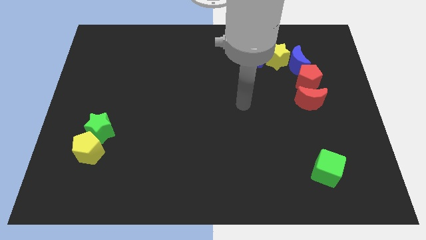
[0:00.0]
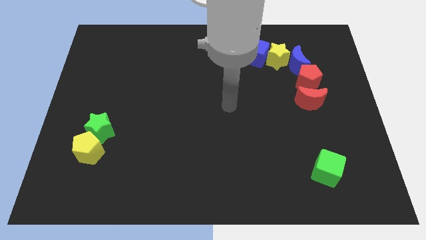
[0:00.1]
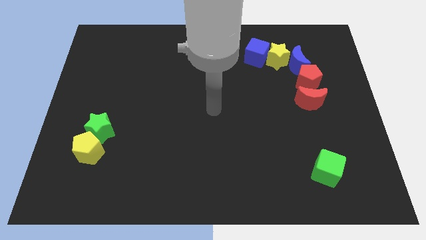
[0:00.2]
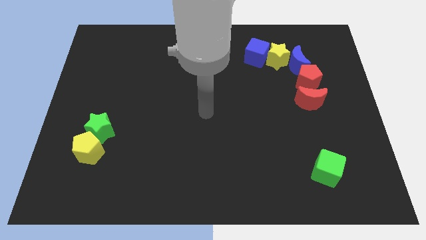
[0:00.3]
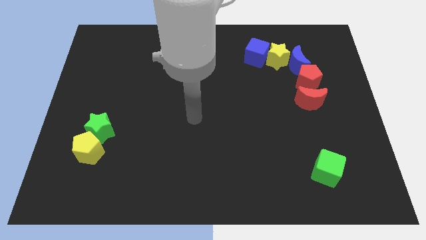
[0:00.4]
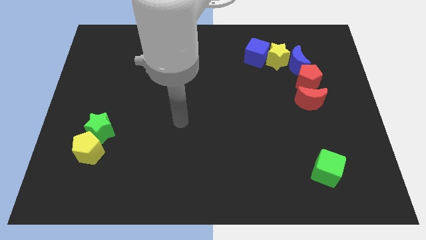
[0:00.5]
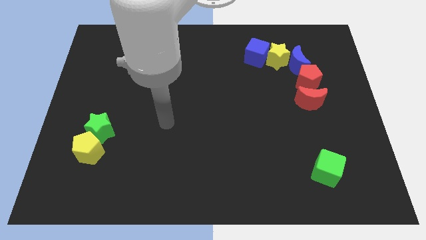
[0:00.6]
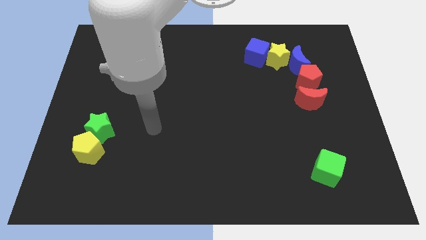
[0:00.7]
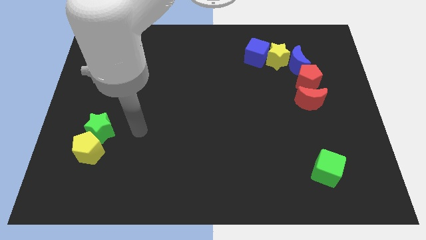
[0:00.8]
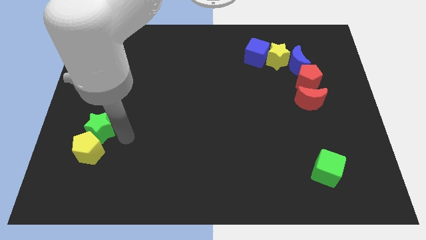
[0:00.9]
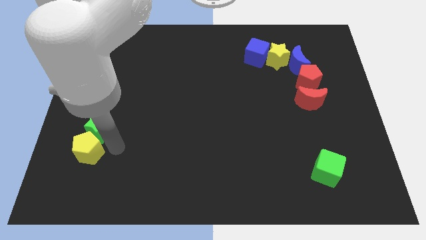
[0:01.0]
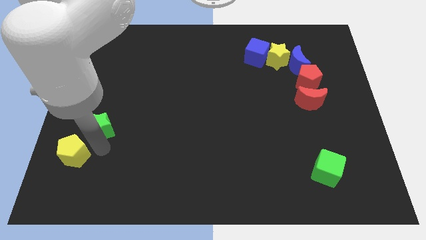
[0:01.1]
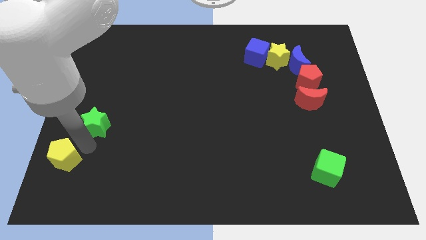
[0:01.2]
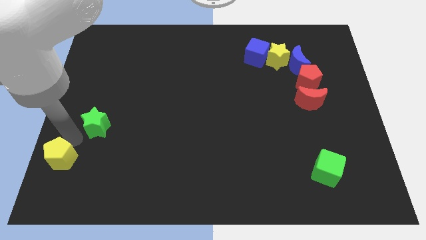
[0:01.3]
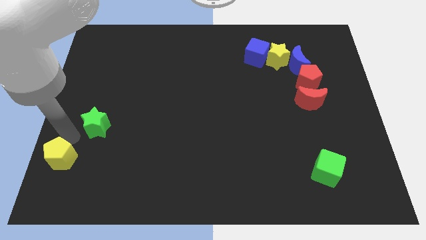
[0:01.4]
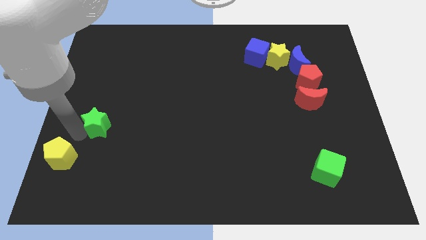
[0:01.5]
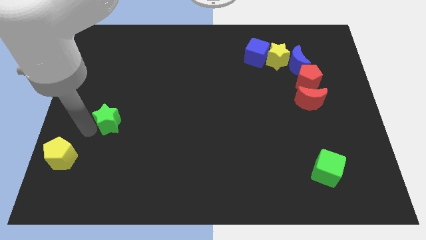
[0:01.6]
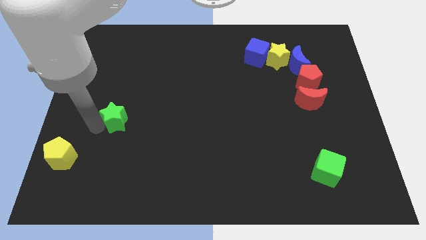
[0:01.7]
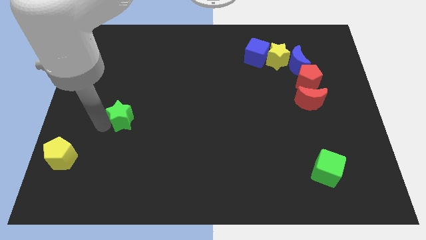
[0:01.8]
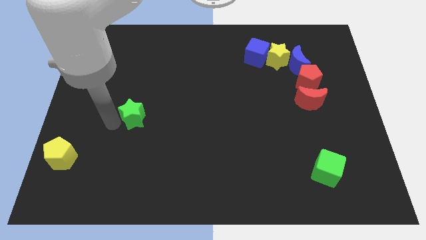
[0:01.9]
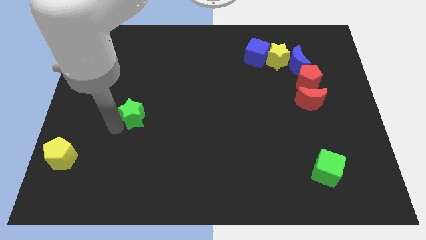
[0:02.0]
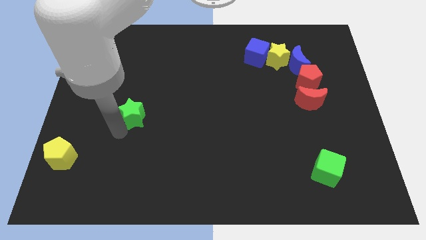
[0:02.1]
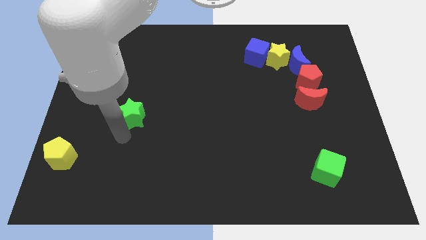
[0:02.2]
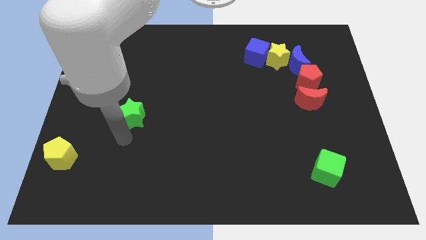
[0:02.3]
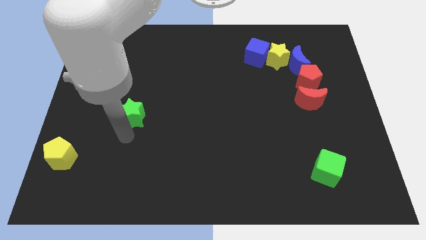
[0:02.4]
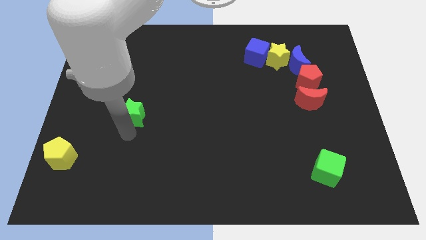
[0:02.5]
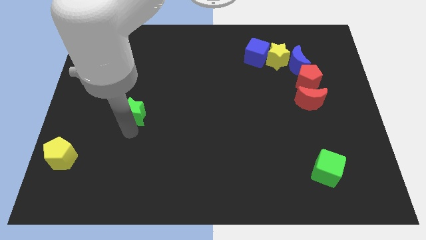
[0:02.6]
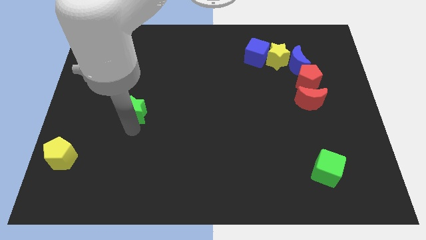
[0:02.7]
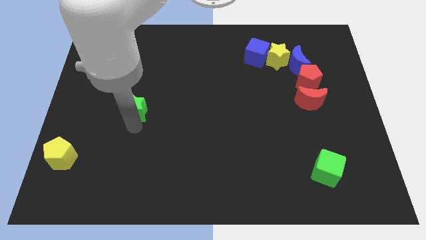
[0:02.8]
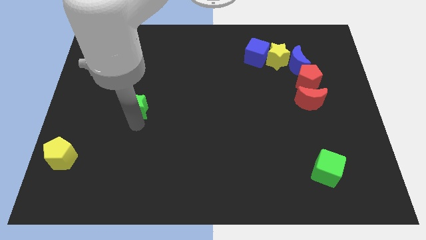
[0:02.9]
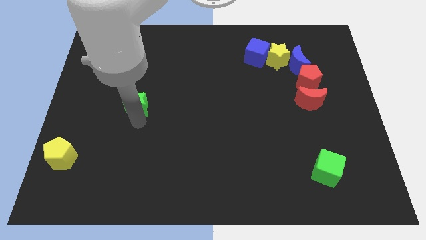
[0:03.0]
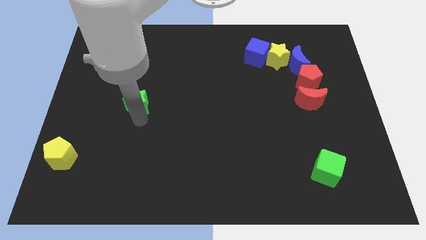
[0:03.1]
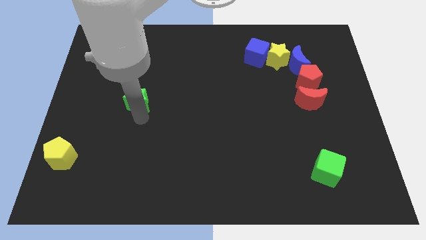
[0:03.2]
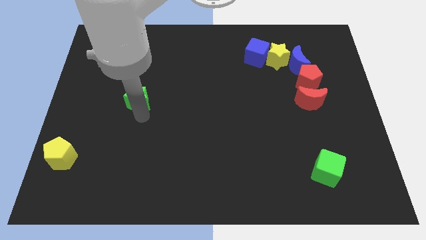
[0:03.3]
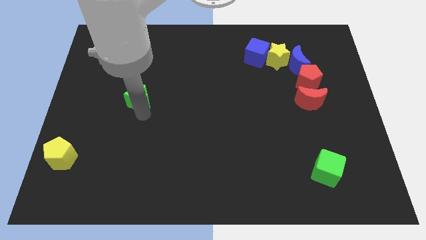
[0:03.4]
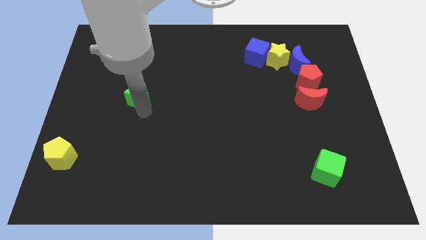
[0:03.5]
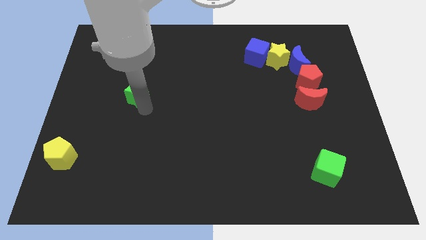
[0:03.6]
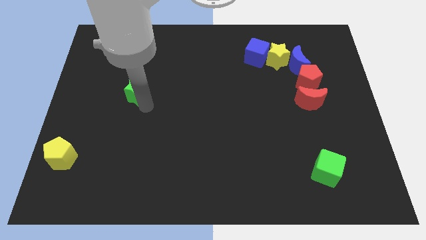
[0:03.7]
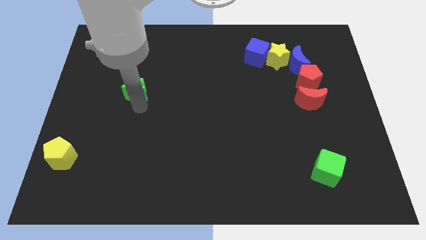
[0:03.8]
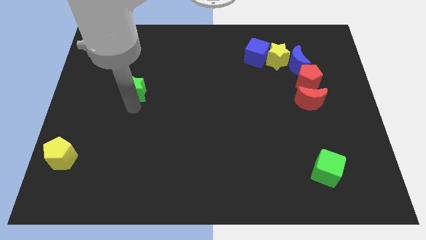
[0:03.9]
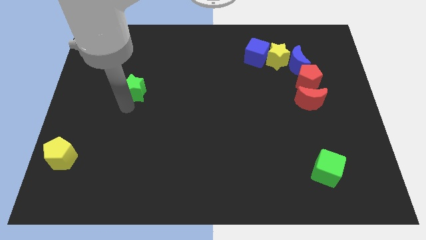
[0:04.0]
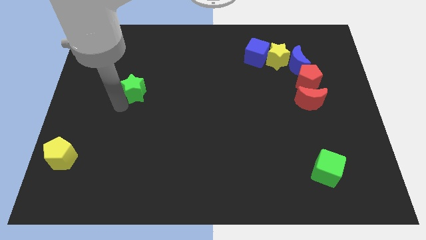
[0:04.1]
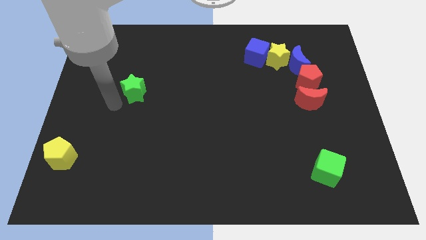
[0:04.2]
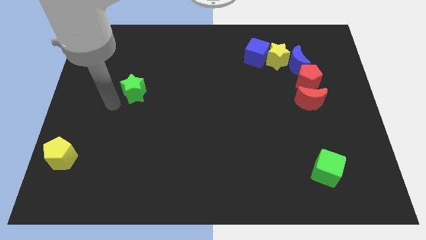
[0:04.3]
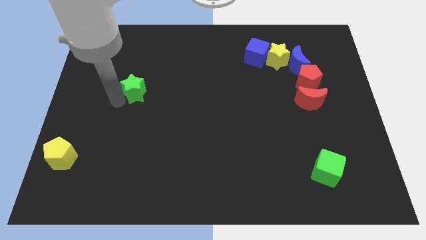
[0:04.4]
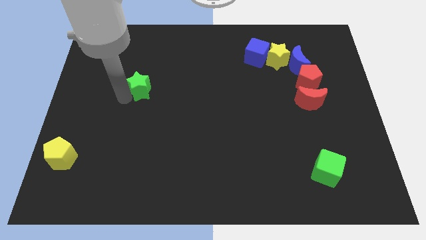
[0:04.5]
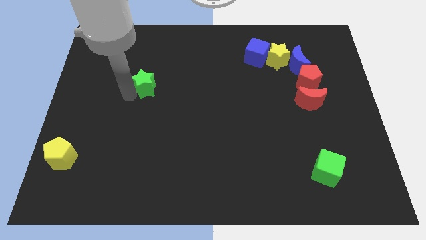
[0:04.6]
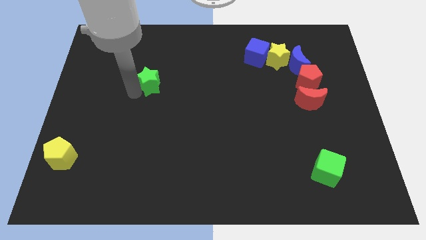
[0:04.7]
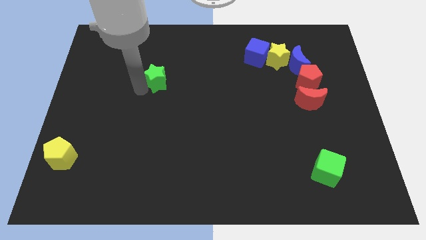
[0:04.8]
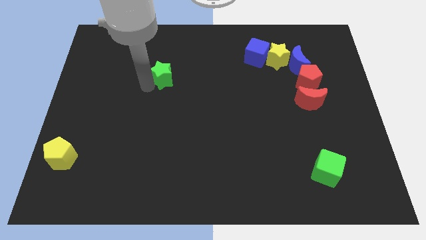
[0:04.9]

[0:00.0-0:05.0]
slide the green star diagonally upwards and to the right

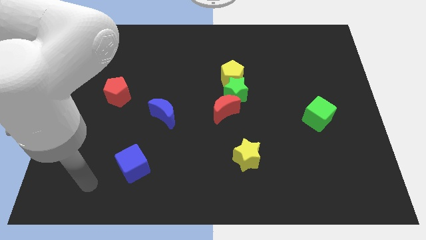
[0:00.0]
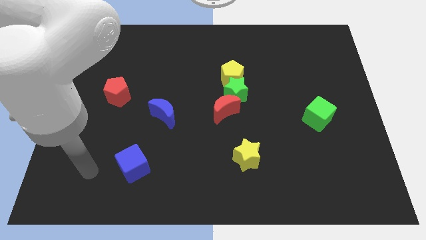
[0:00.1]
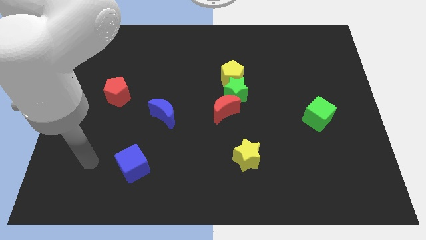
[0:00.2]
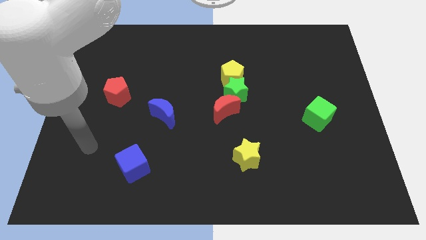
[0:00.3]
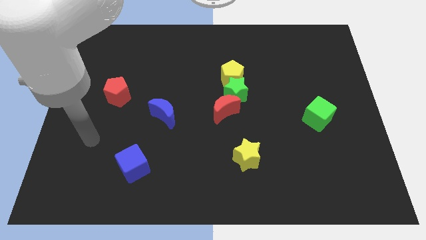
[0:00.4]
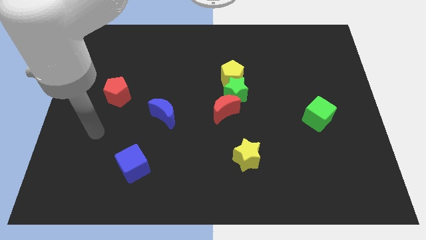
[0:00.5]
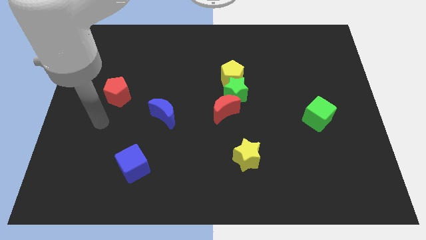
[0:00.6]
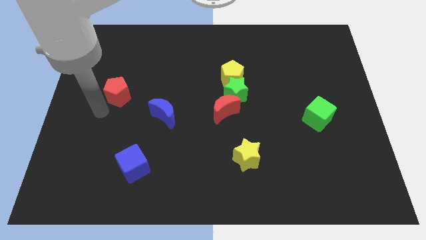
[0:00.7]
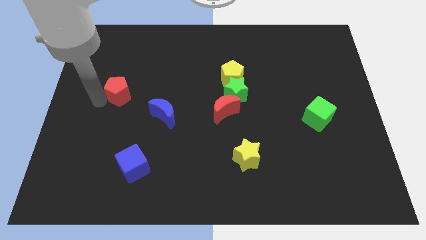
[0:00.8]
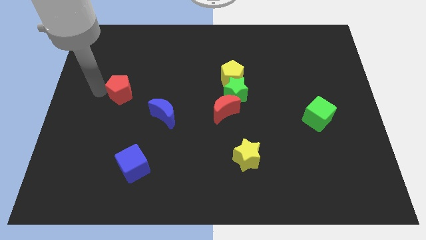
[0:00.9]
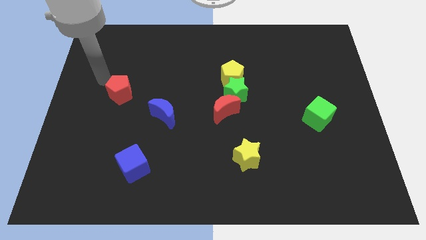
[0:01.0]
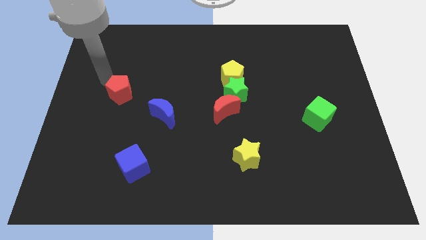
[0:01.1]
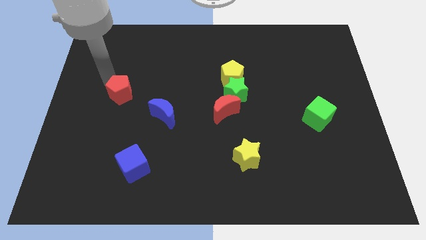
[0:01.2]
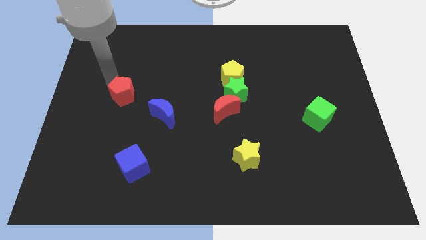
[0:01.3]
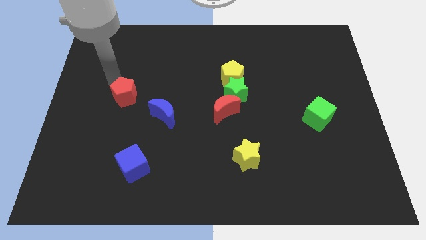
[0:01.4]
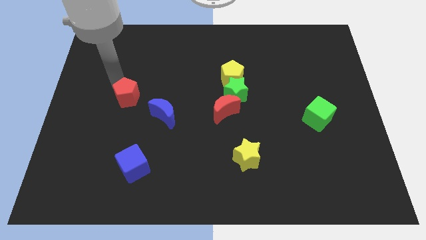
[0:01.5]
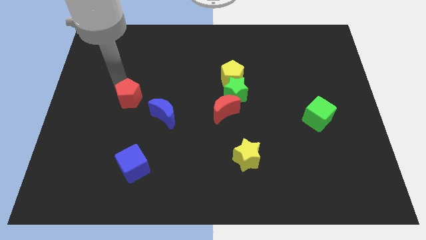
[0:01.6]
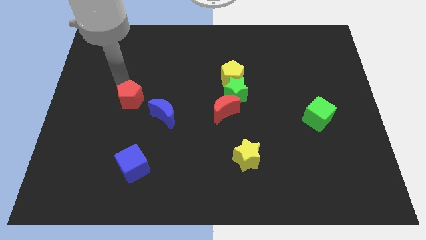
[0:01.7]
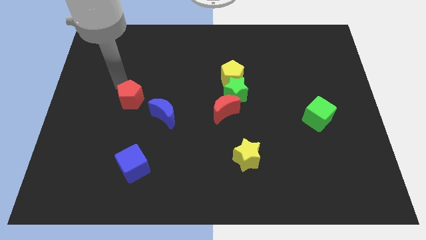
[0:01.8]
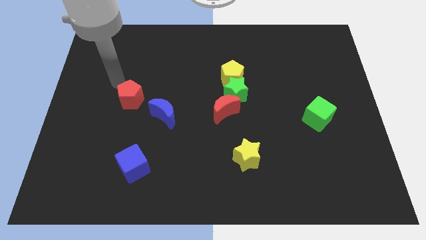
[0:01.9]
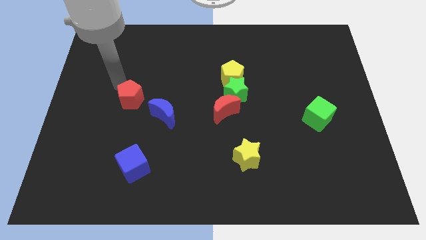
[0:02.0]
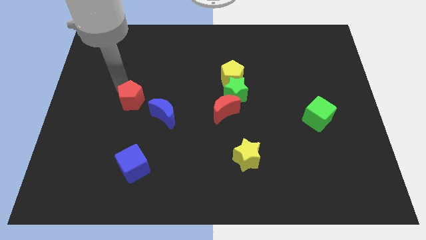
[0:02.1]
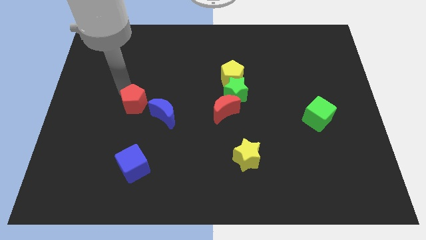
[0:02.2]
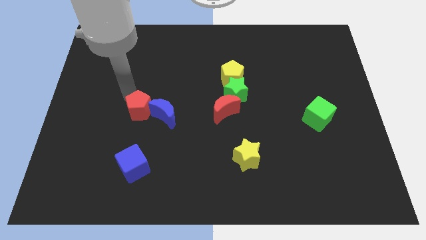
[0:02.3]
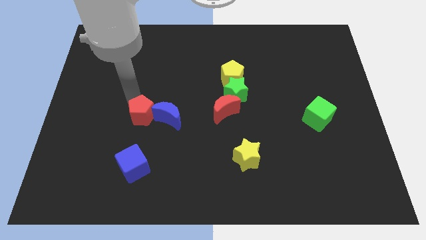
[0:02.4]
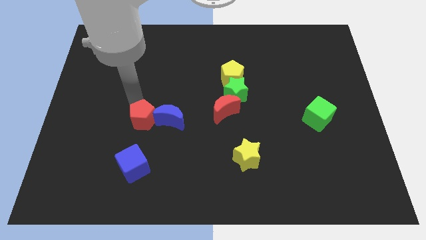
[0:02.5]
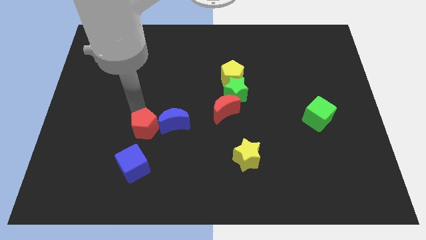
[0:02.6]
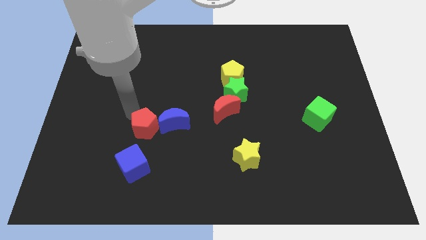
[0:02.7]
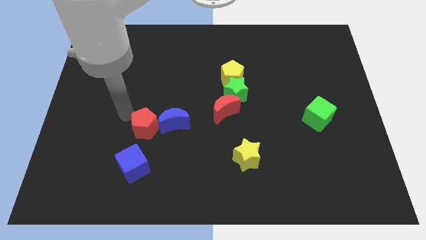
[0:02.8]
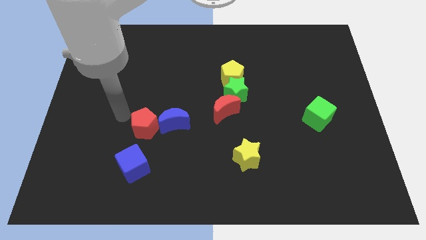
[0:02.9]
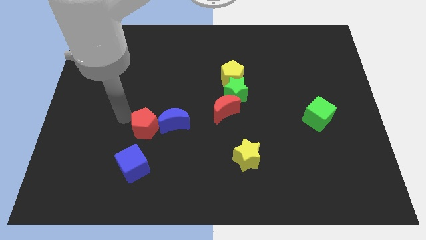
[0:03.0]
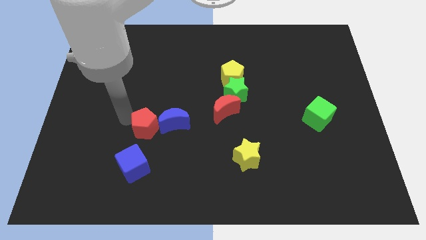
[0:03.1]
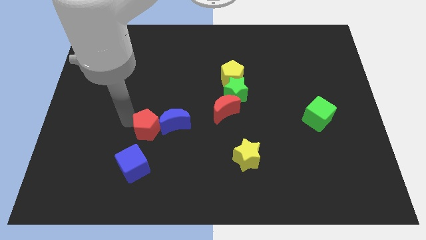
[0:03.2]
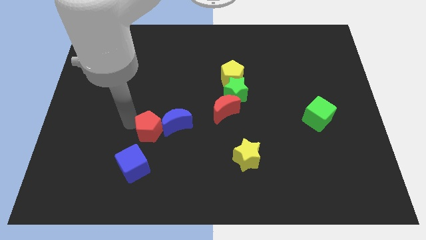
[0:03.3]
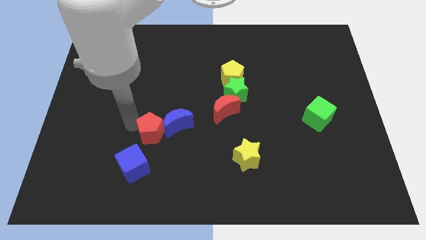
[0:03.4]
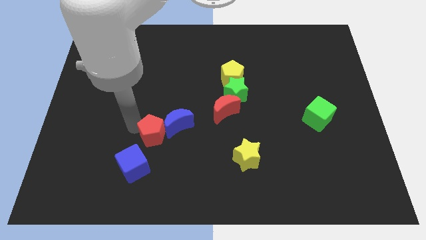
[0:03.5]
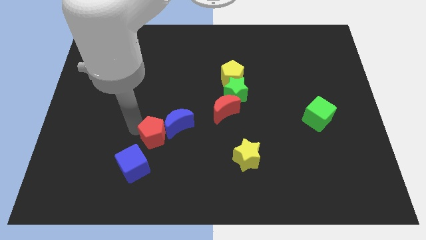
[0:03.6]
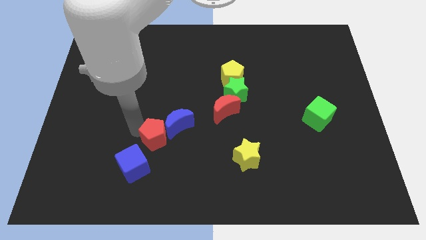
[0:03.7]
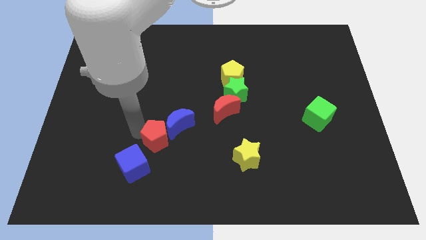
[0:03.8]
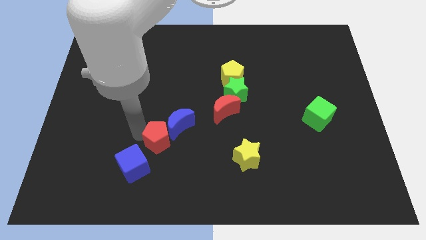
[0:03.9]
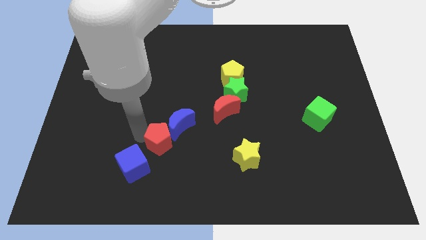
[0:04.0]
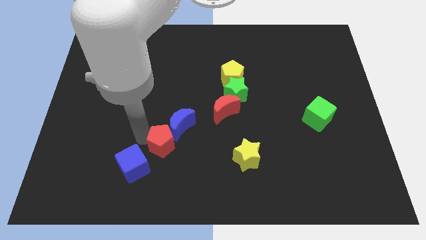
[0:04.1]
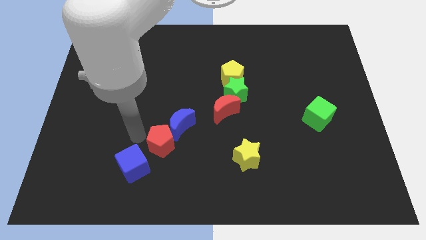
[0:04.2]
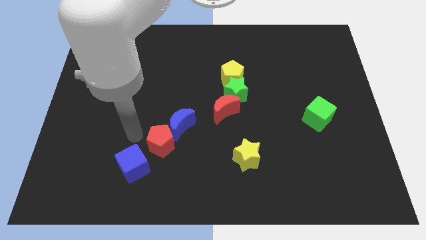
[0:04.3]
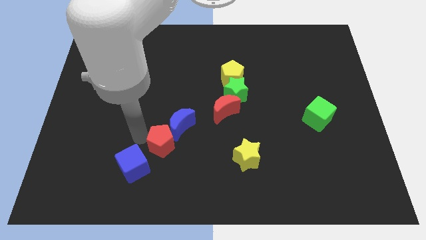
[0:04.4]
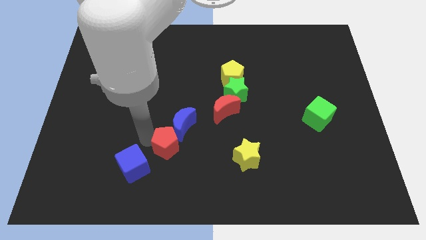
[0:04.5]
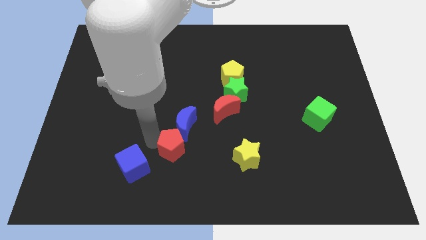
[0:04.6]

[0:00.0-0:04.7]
push the red pentagon downwards and then to the right
